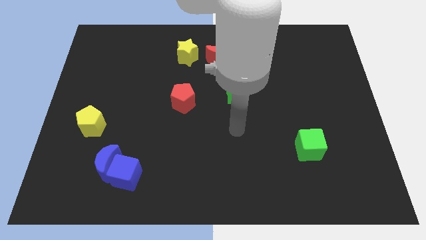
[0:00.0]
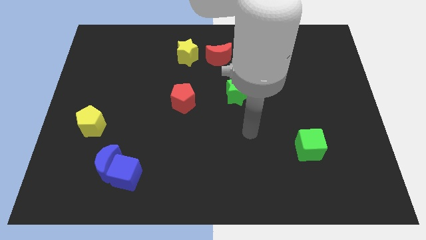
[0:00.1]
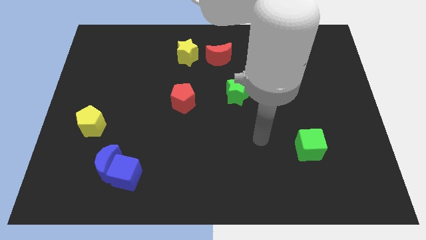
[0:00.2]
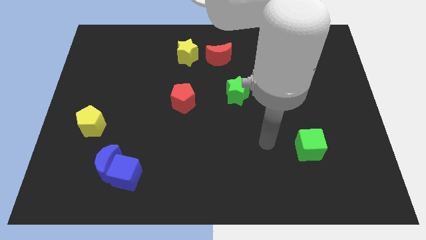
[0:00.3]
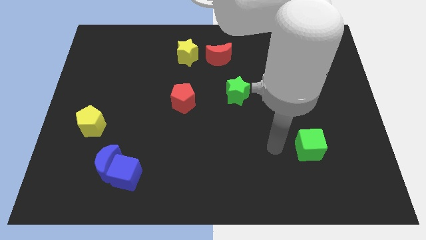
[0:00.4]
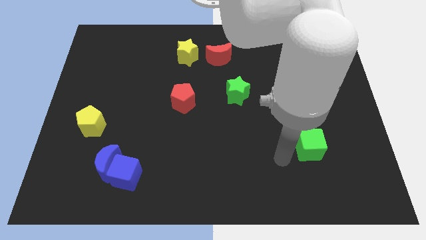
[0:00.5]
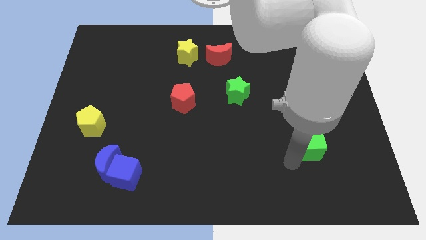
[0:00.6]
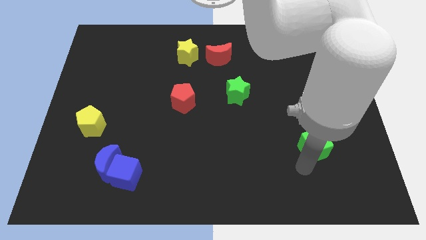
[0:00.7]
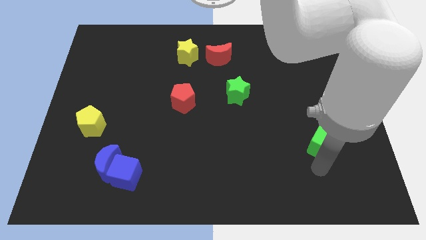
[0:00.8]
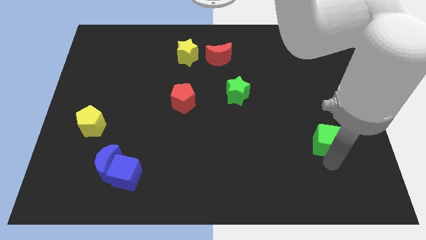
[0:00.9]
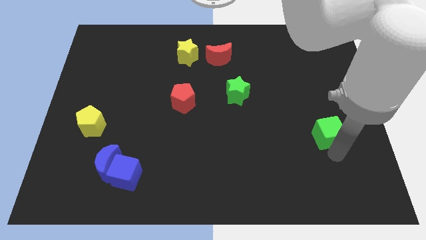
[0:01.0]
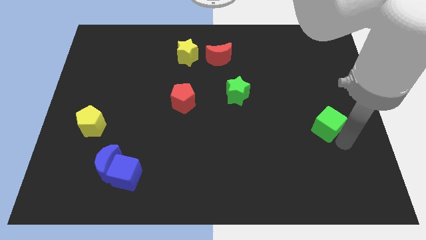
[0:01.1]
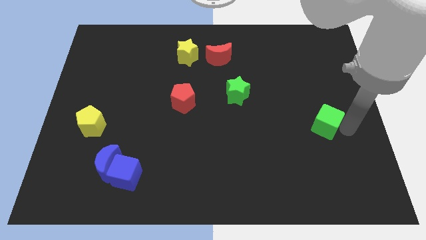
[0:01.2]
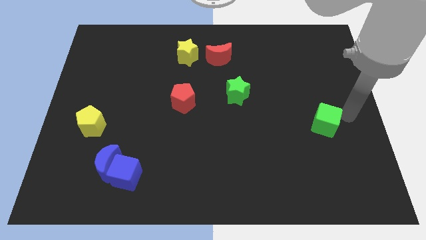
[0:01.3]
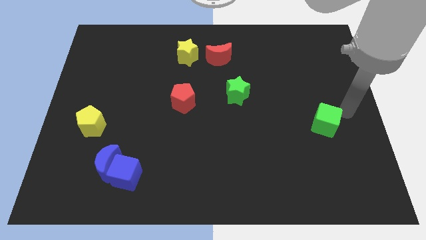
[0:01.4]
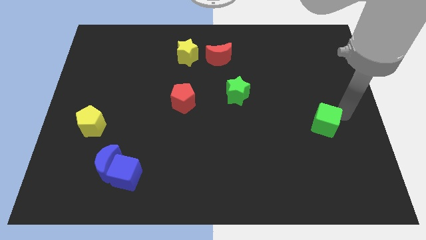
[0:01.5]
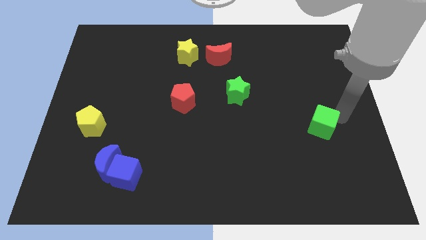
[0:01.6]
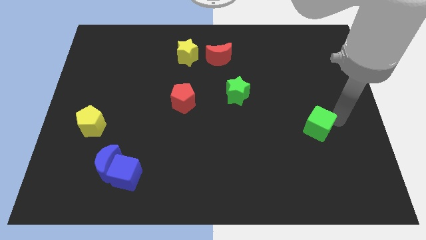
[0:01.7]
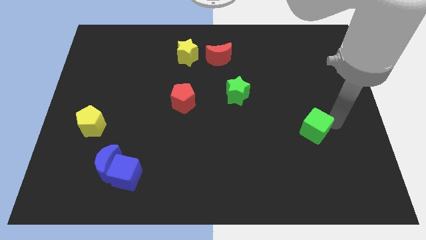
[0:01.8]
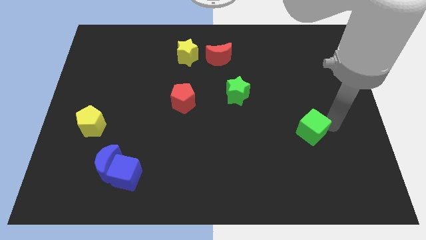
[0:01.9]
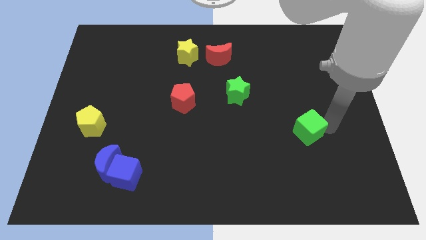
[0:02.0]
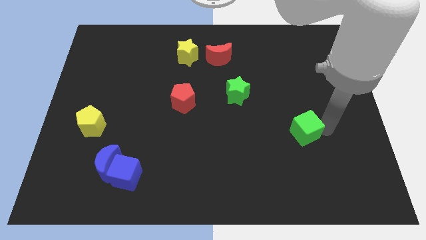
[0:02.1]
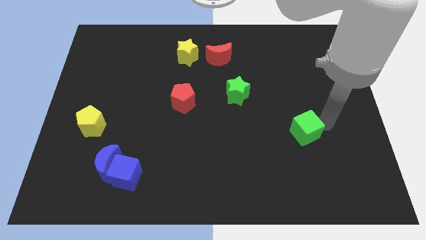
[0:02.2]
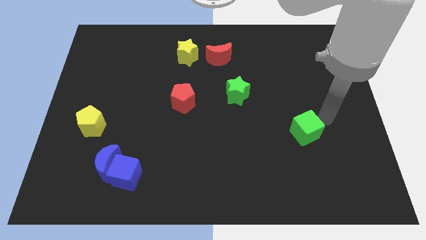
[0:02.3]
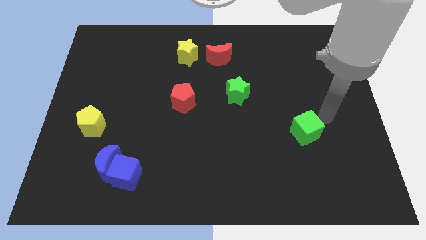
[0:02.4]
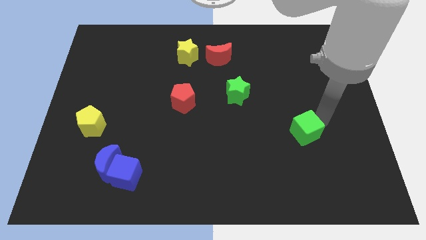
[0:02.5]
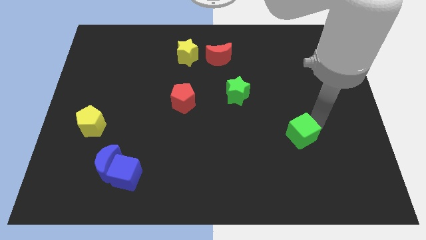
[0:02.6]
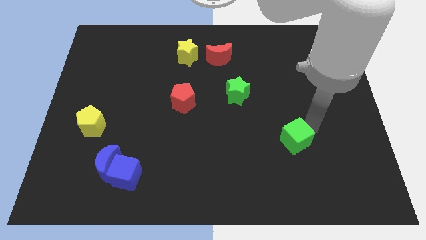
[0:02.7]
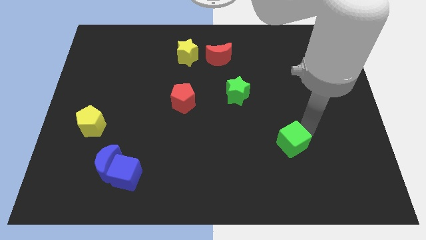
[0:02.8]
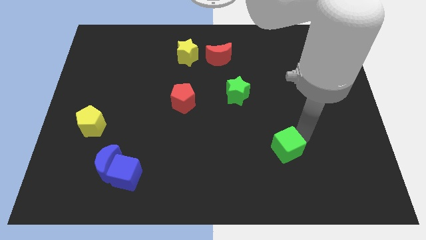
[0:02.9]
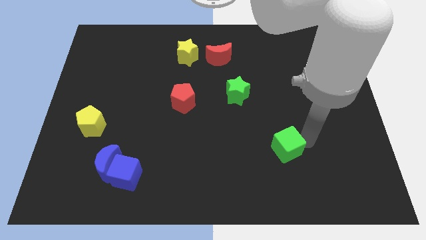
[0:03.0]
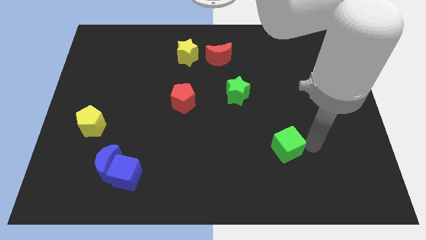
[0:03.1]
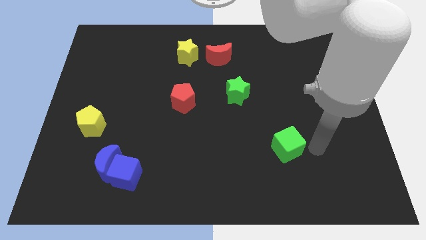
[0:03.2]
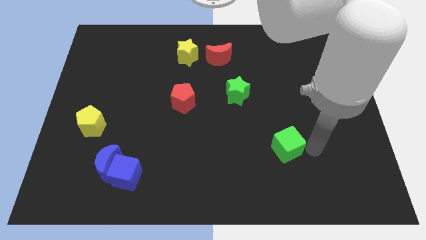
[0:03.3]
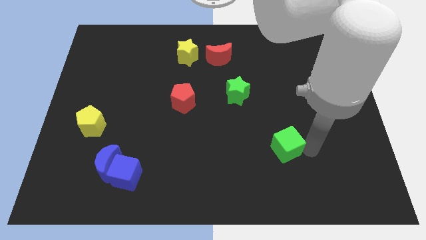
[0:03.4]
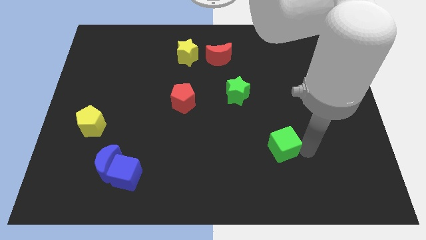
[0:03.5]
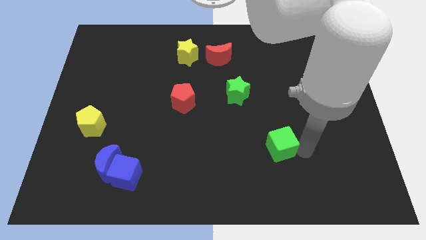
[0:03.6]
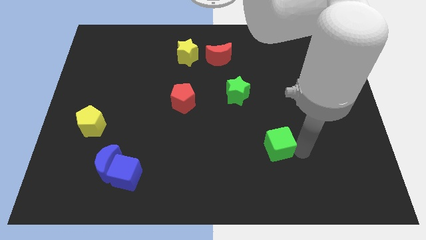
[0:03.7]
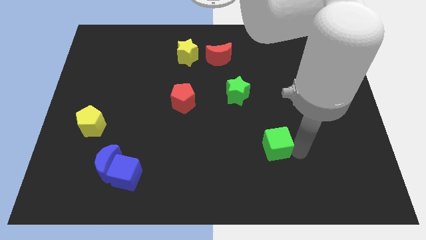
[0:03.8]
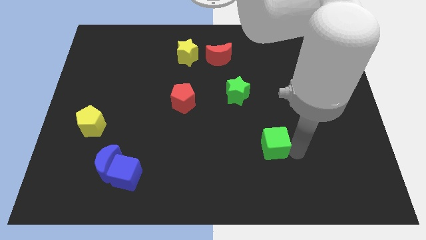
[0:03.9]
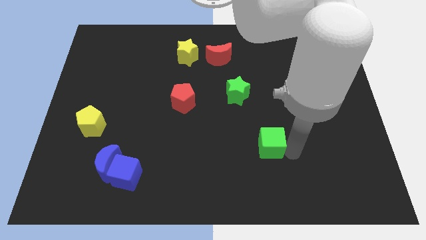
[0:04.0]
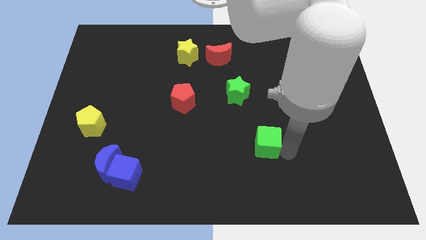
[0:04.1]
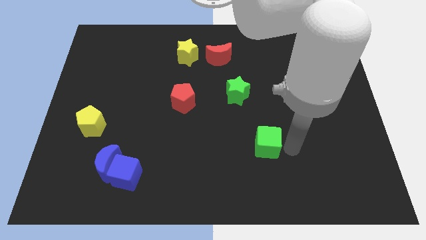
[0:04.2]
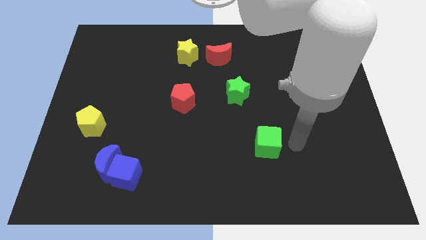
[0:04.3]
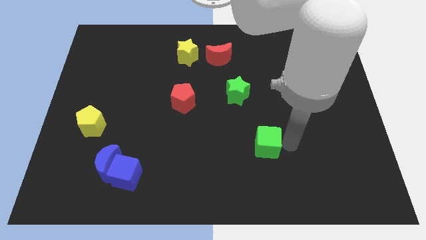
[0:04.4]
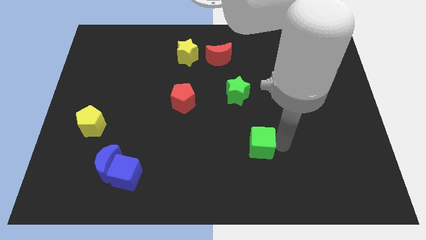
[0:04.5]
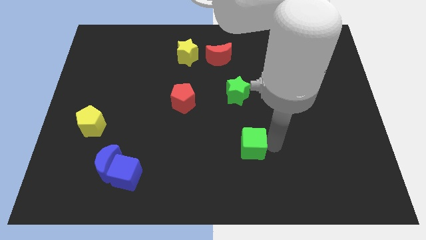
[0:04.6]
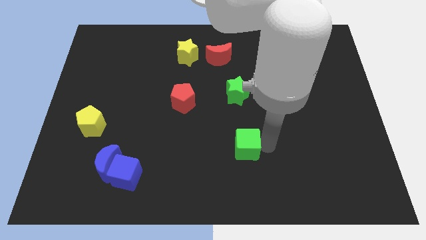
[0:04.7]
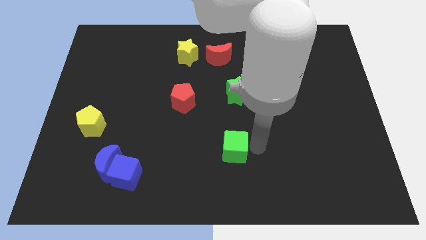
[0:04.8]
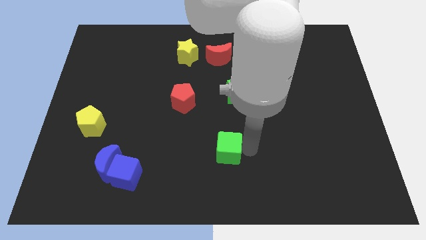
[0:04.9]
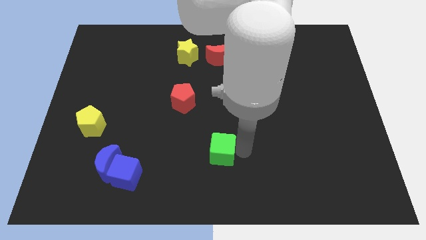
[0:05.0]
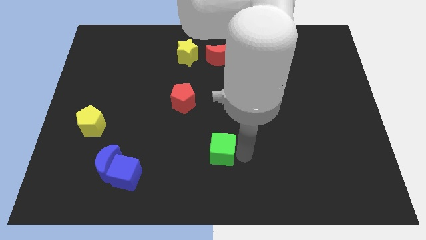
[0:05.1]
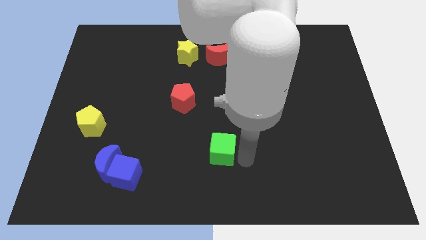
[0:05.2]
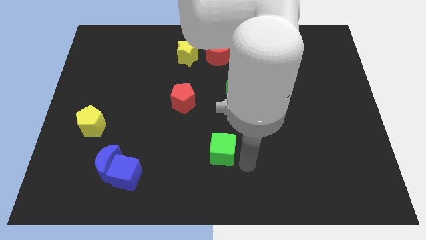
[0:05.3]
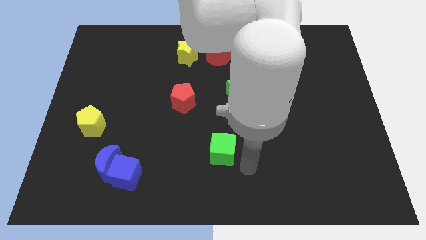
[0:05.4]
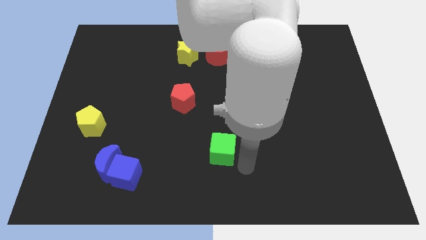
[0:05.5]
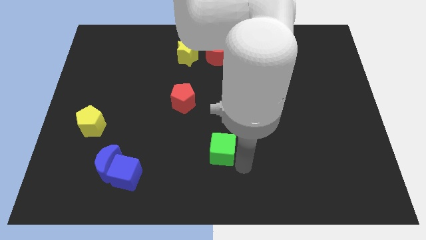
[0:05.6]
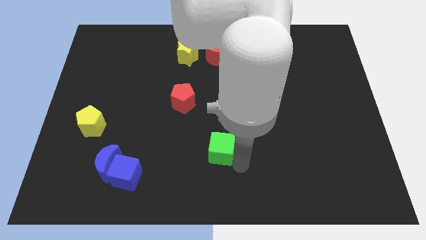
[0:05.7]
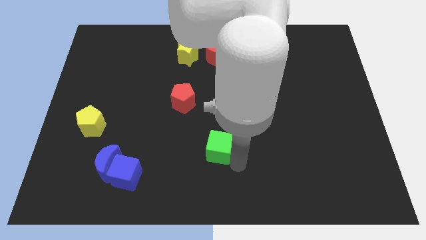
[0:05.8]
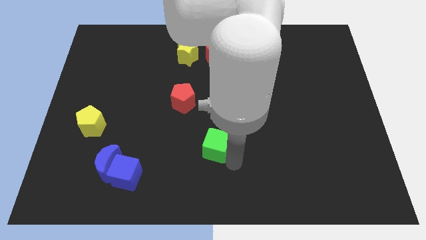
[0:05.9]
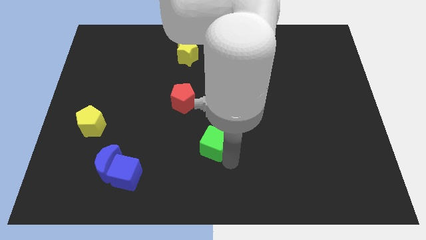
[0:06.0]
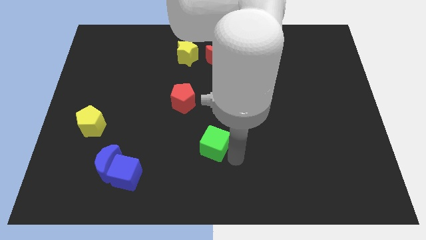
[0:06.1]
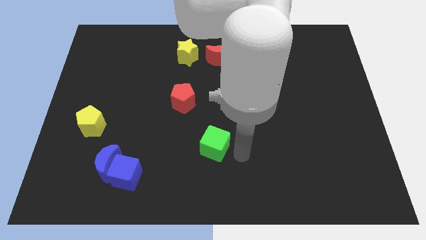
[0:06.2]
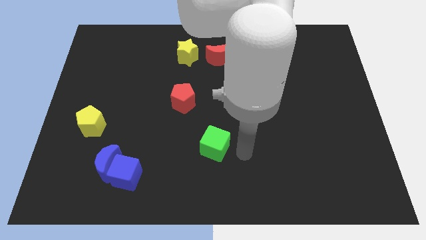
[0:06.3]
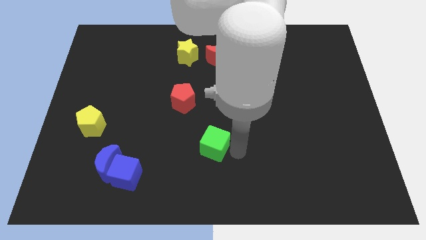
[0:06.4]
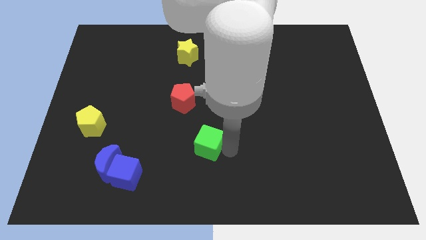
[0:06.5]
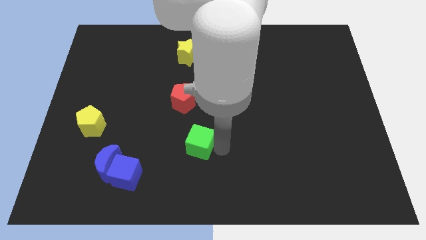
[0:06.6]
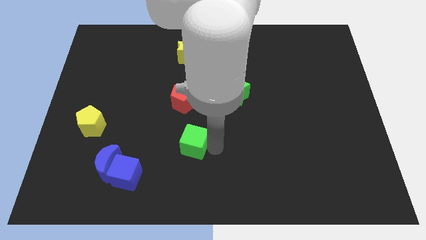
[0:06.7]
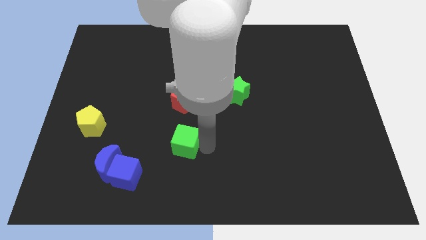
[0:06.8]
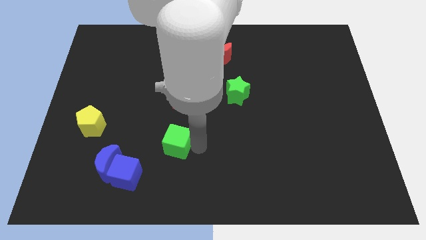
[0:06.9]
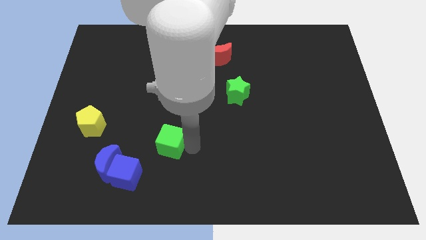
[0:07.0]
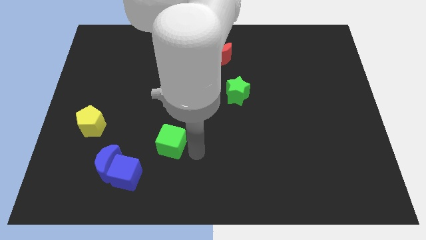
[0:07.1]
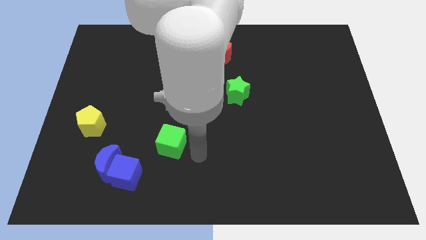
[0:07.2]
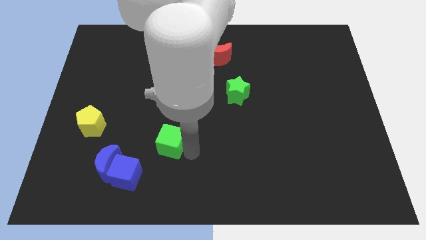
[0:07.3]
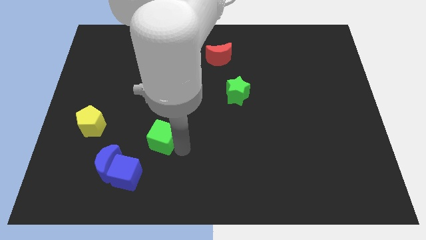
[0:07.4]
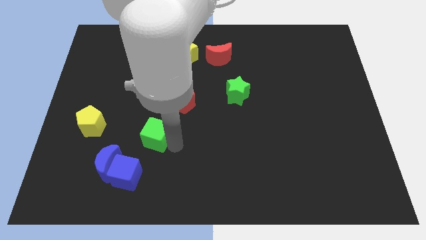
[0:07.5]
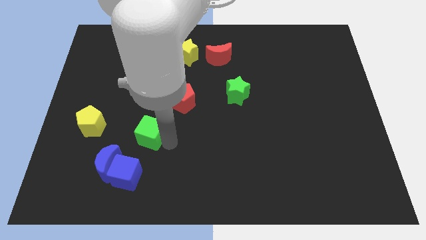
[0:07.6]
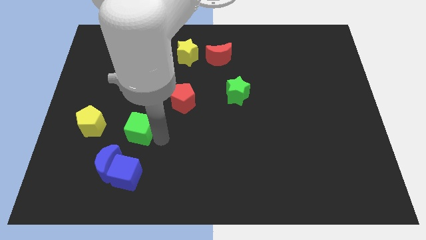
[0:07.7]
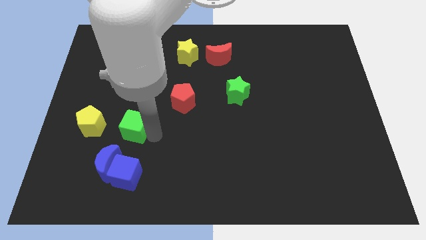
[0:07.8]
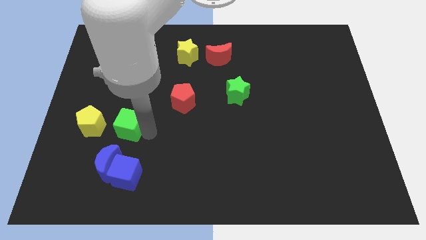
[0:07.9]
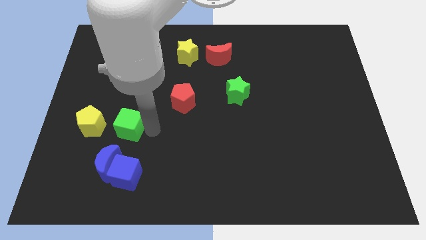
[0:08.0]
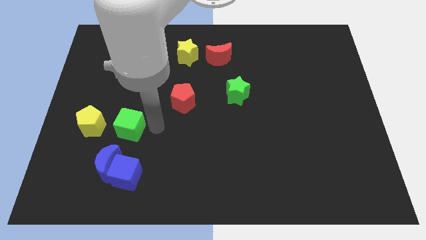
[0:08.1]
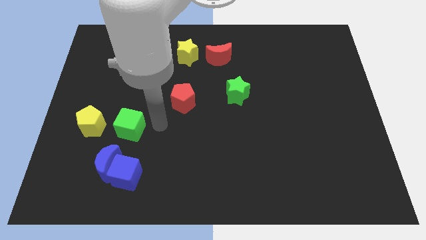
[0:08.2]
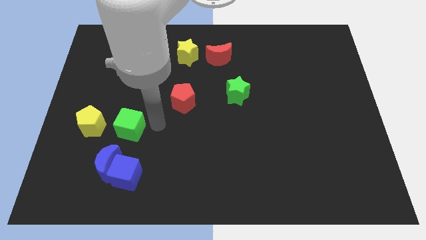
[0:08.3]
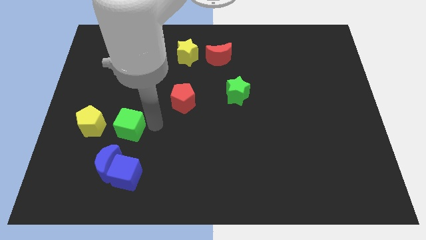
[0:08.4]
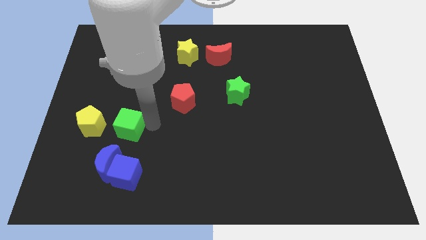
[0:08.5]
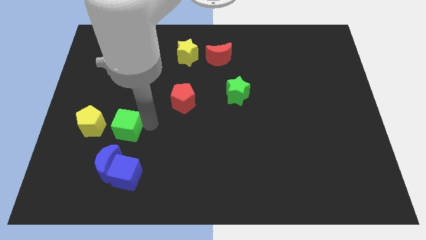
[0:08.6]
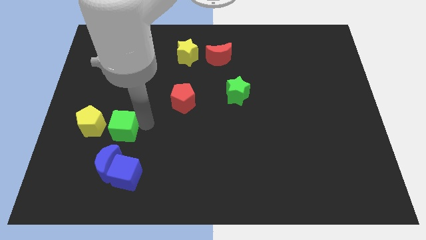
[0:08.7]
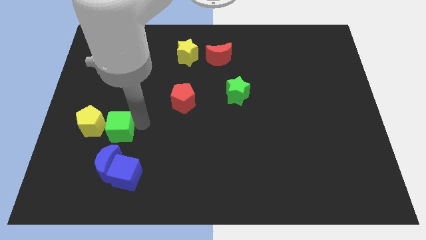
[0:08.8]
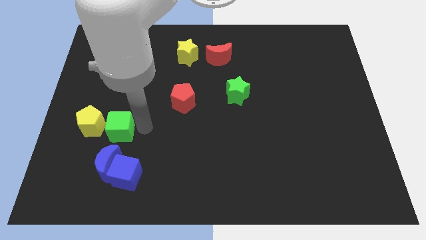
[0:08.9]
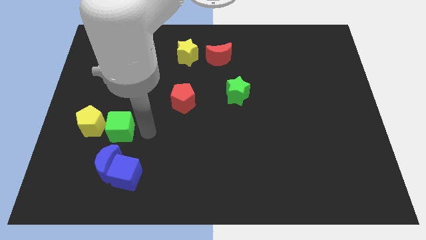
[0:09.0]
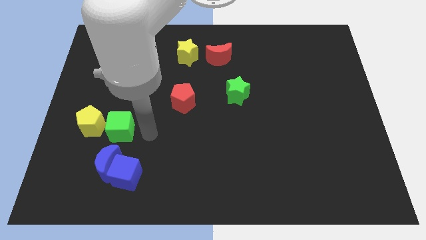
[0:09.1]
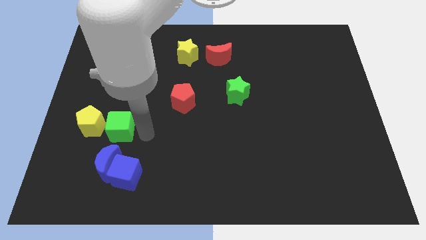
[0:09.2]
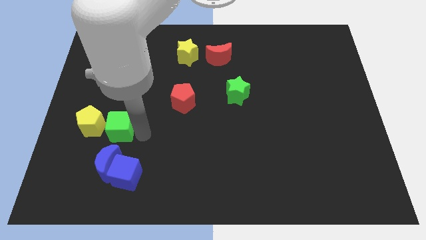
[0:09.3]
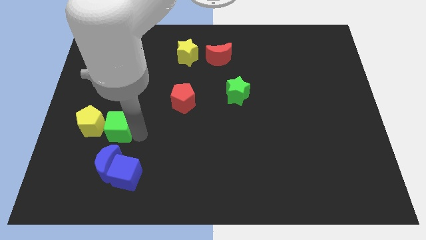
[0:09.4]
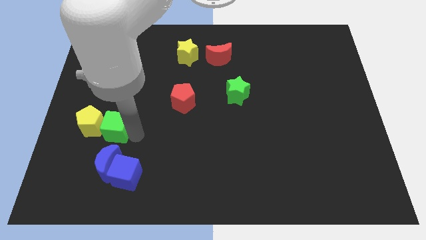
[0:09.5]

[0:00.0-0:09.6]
slide the green cube next to the yellow pentagon
